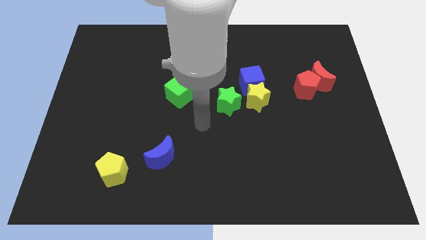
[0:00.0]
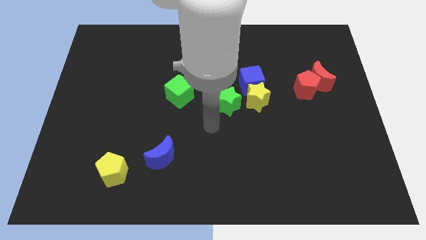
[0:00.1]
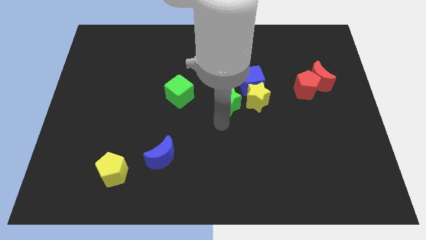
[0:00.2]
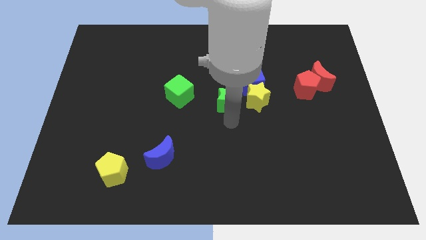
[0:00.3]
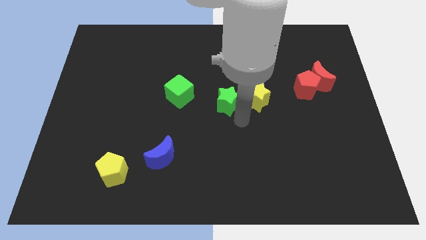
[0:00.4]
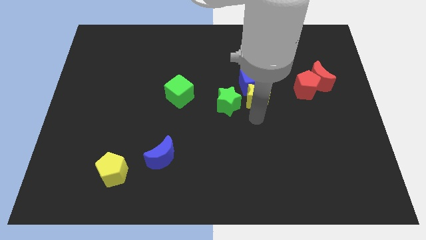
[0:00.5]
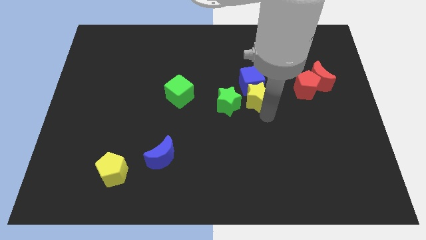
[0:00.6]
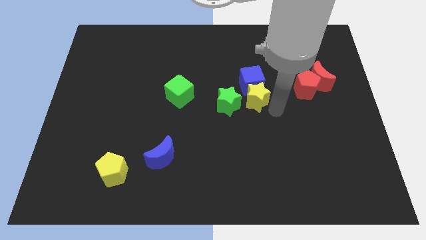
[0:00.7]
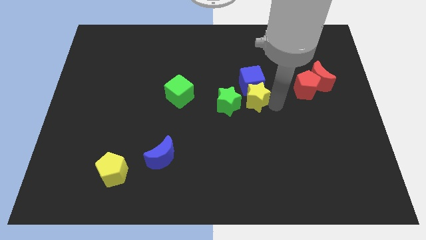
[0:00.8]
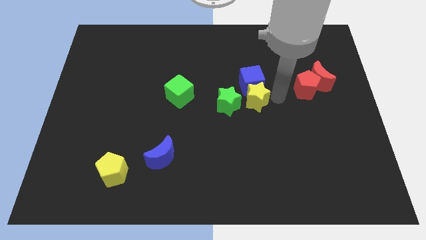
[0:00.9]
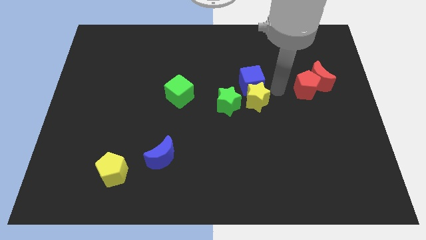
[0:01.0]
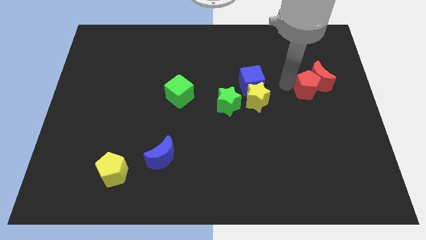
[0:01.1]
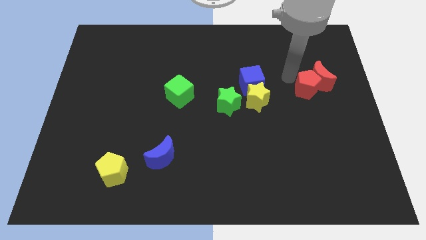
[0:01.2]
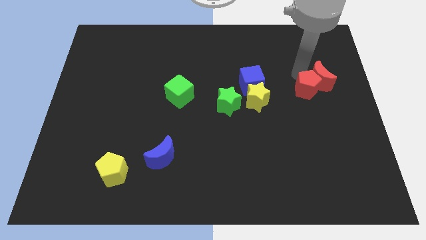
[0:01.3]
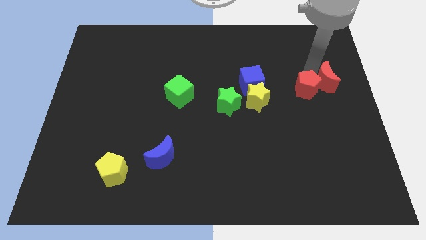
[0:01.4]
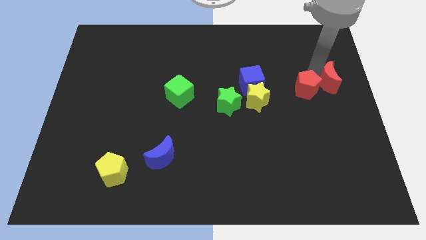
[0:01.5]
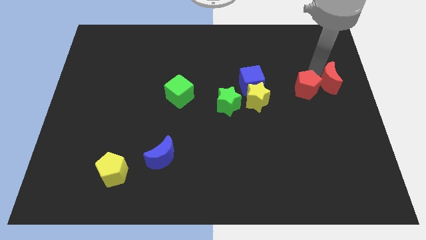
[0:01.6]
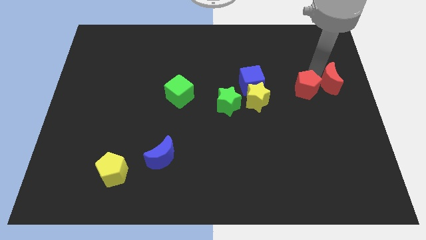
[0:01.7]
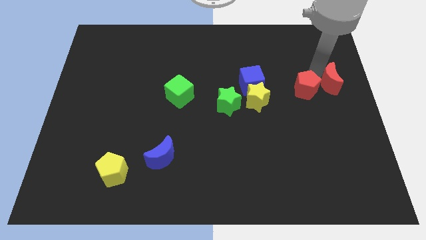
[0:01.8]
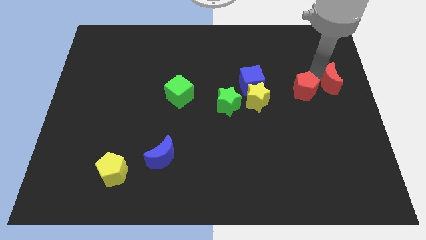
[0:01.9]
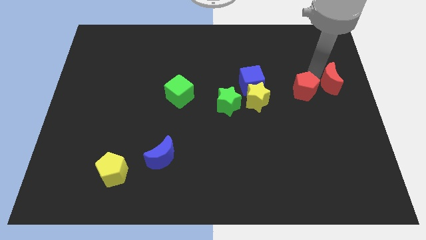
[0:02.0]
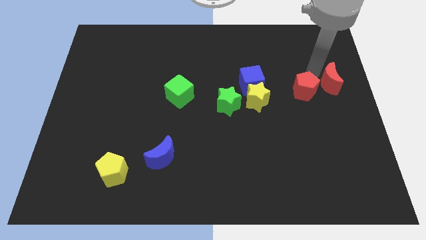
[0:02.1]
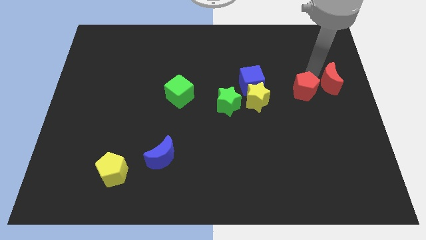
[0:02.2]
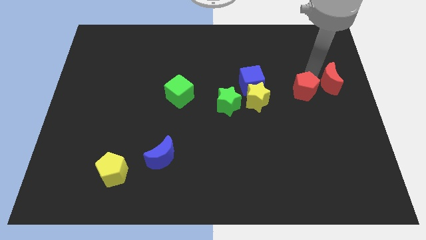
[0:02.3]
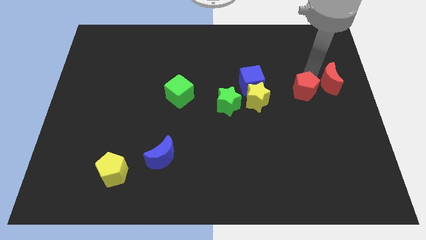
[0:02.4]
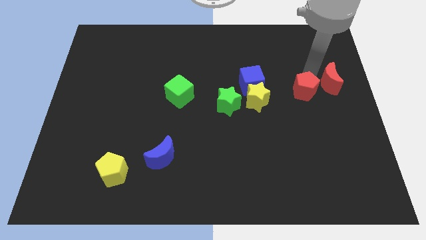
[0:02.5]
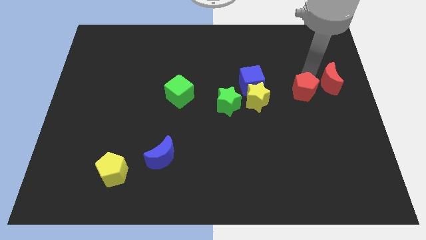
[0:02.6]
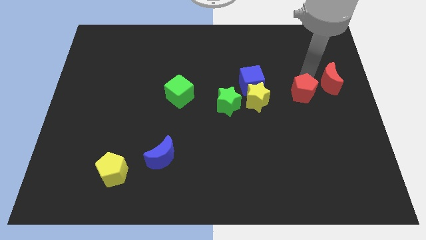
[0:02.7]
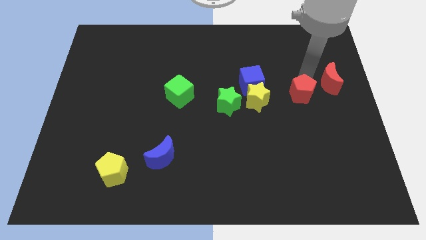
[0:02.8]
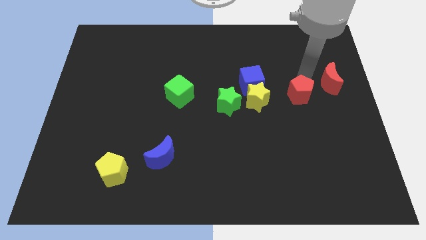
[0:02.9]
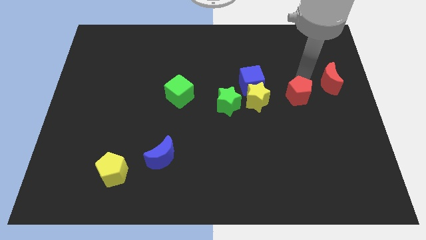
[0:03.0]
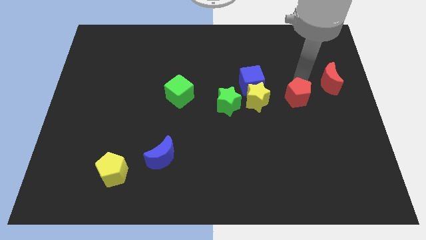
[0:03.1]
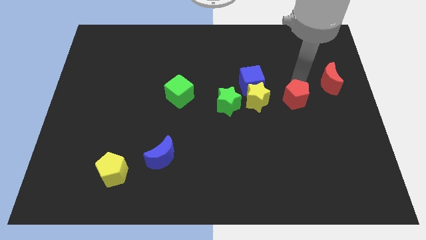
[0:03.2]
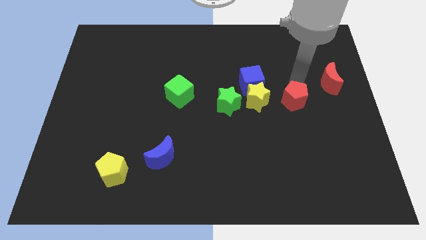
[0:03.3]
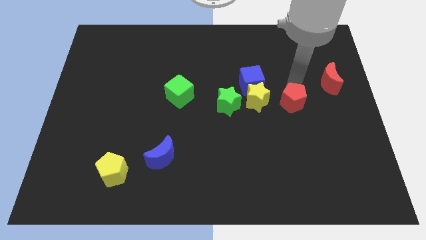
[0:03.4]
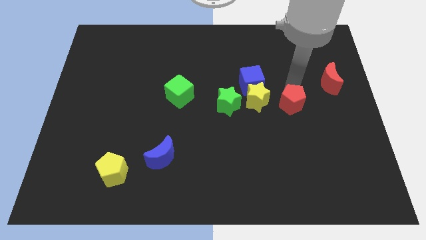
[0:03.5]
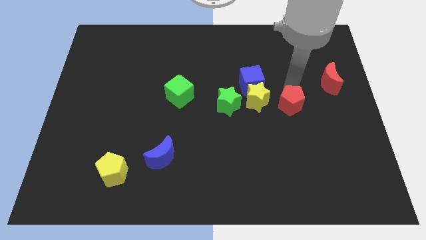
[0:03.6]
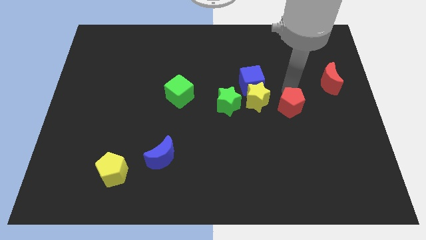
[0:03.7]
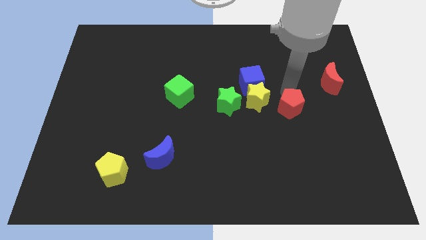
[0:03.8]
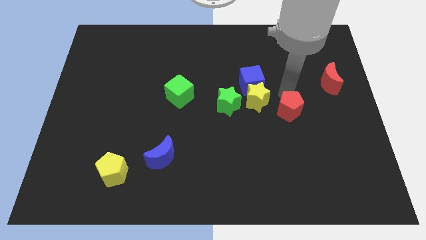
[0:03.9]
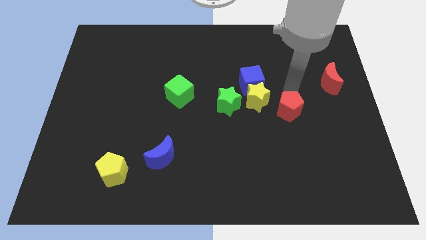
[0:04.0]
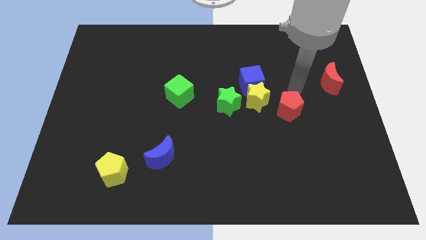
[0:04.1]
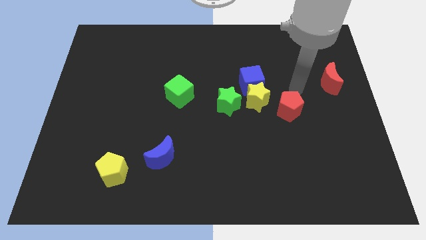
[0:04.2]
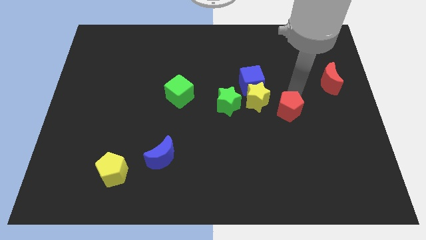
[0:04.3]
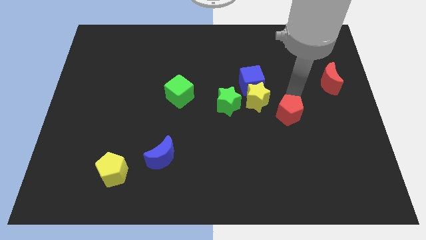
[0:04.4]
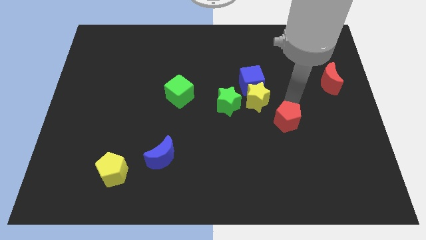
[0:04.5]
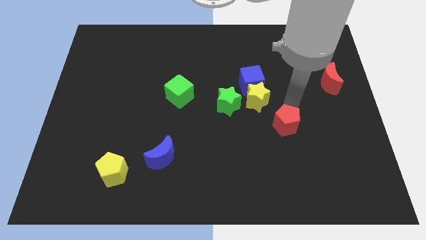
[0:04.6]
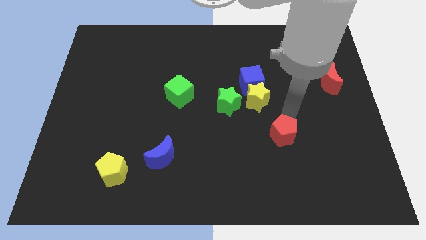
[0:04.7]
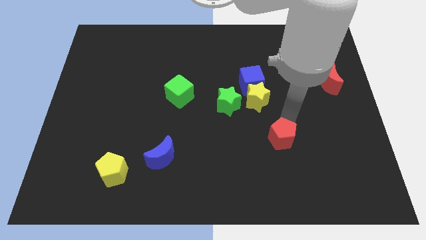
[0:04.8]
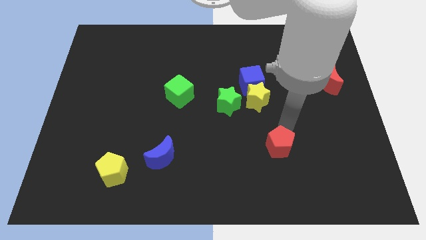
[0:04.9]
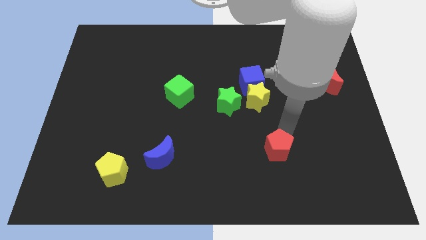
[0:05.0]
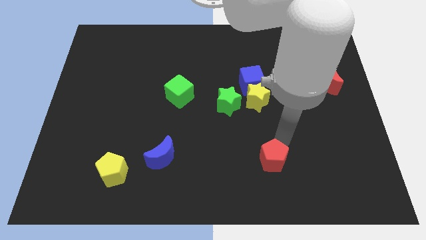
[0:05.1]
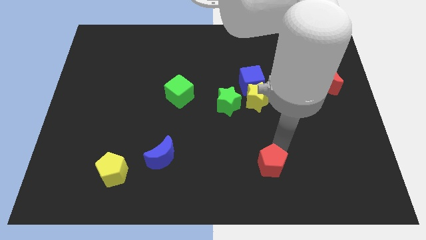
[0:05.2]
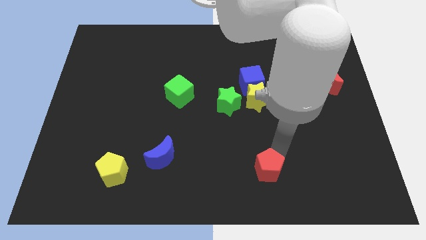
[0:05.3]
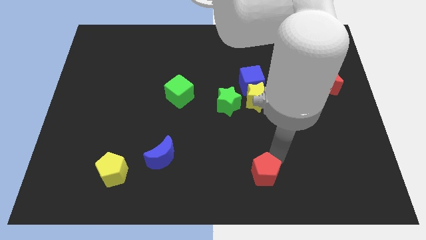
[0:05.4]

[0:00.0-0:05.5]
push the red pentagon to the bottom side

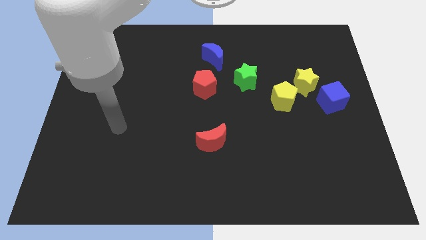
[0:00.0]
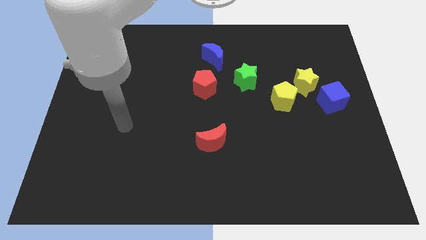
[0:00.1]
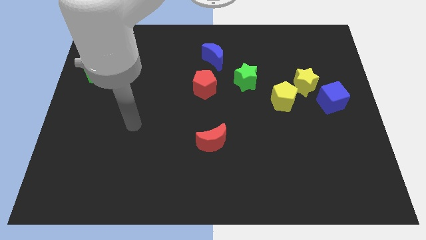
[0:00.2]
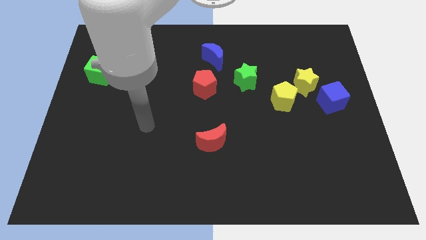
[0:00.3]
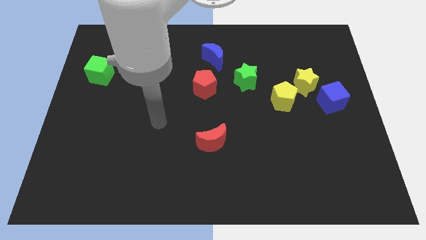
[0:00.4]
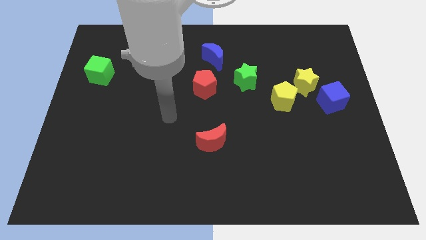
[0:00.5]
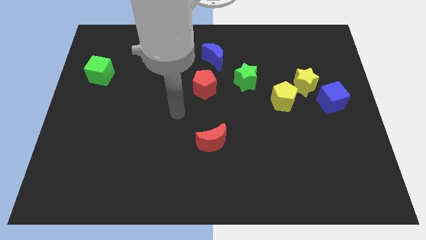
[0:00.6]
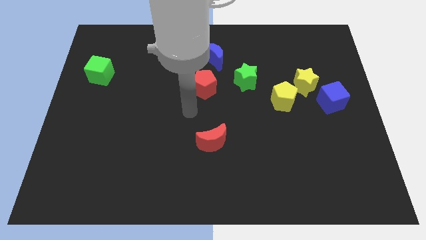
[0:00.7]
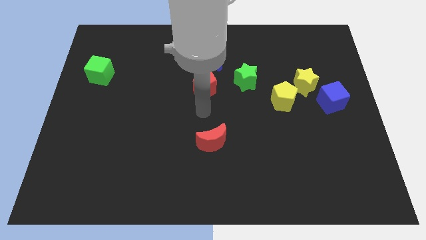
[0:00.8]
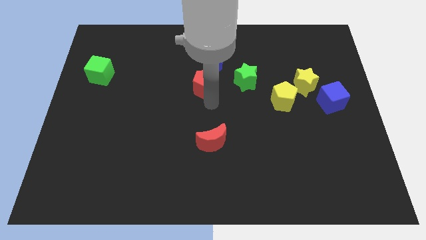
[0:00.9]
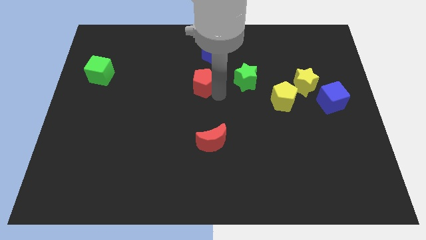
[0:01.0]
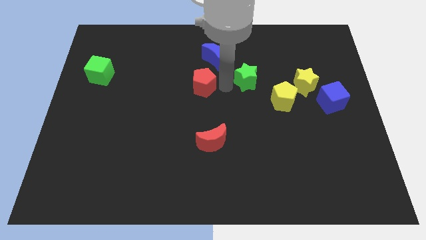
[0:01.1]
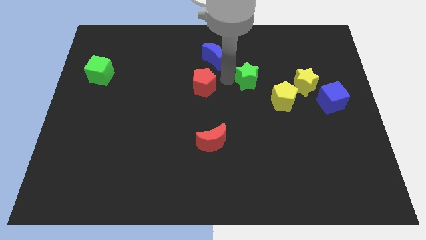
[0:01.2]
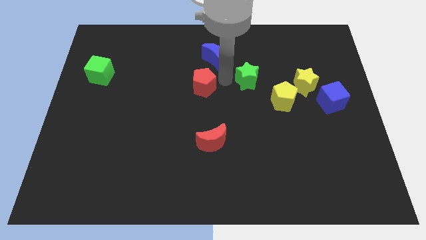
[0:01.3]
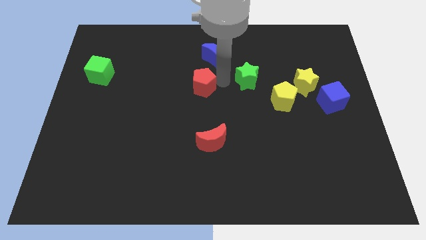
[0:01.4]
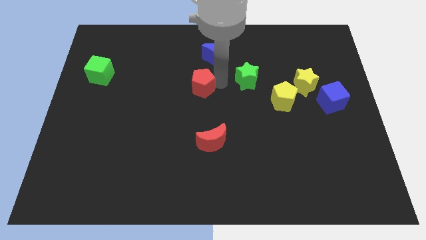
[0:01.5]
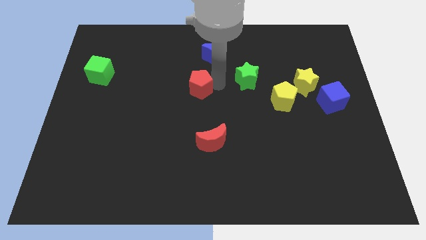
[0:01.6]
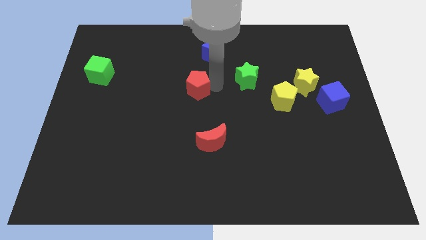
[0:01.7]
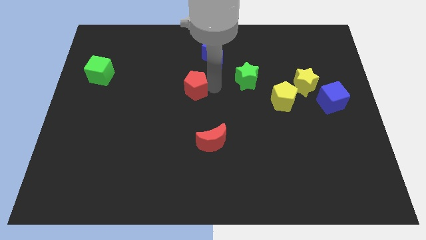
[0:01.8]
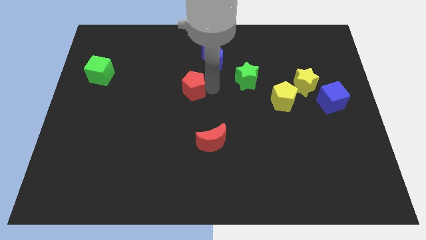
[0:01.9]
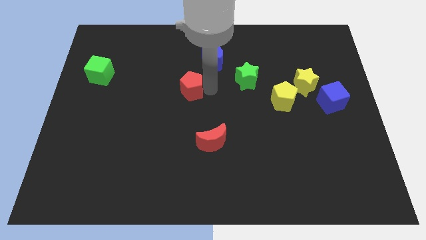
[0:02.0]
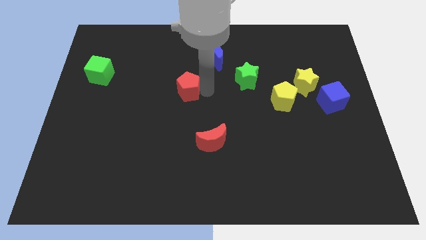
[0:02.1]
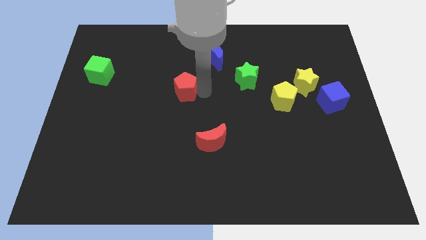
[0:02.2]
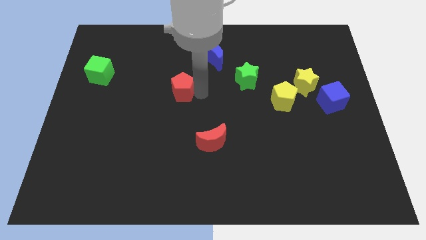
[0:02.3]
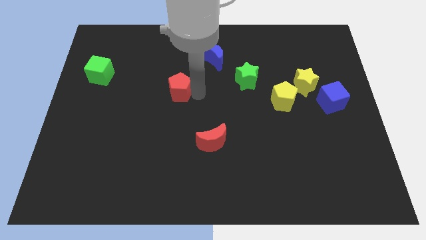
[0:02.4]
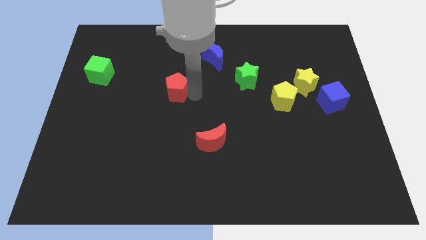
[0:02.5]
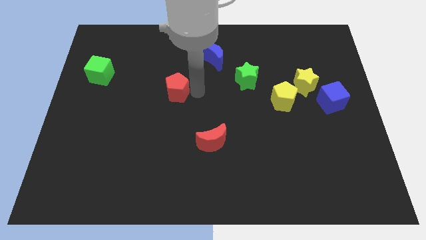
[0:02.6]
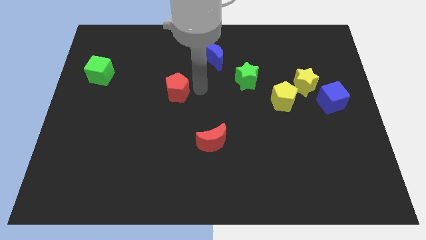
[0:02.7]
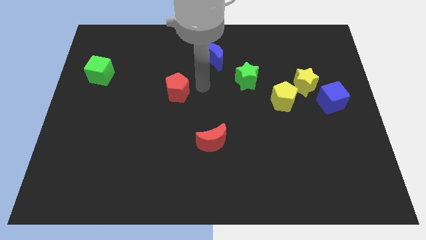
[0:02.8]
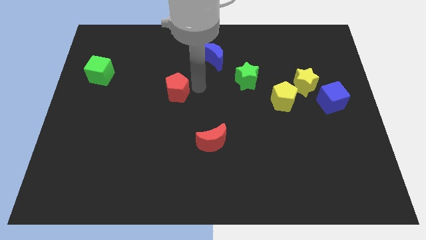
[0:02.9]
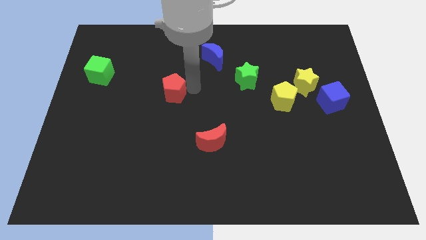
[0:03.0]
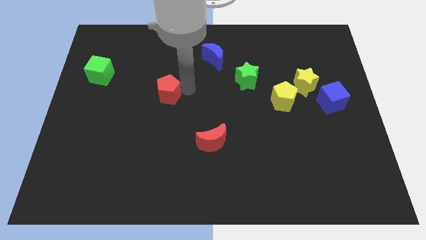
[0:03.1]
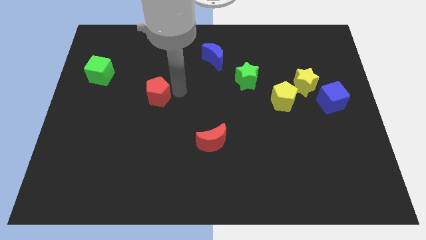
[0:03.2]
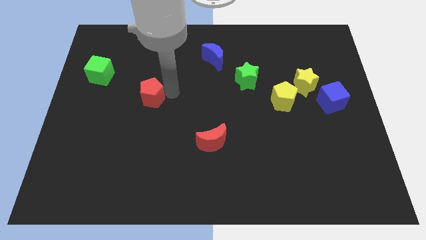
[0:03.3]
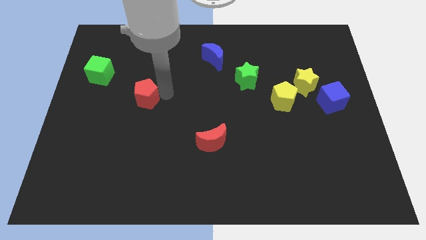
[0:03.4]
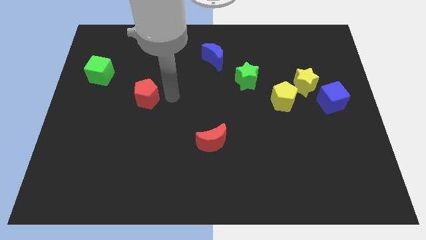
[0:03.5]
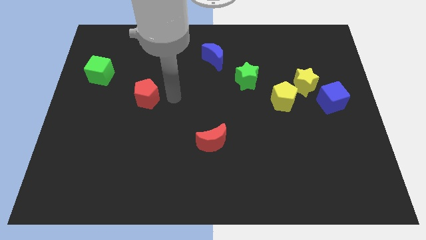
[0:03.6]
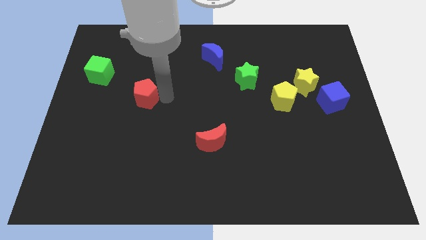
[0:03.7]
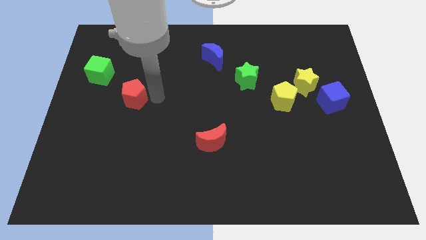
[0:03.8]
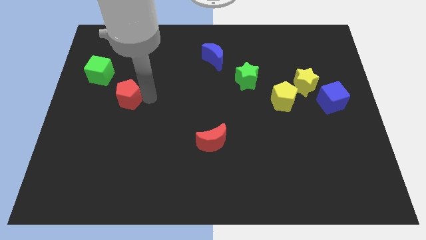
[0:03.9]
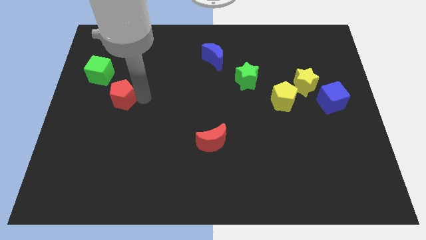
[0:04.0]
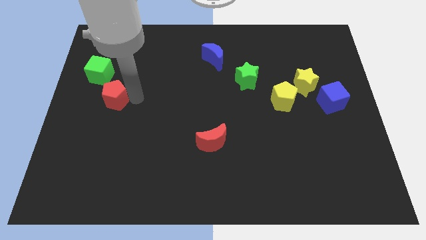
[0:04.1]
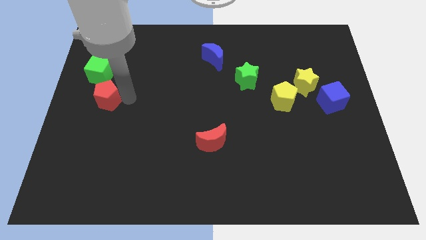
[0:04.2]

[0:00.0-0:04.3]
move the red pentagon to the left side of the board
